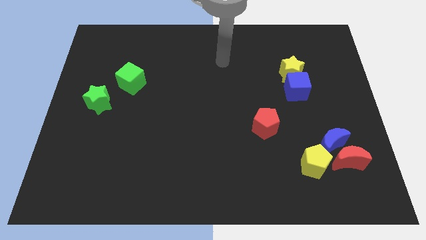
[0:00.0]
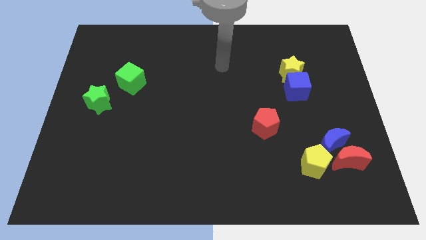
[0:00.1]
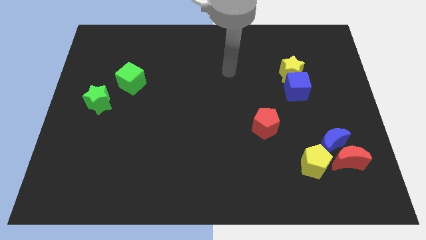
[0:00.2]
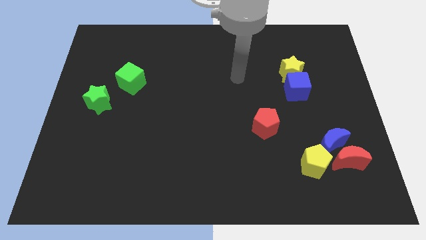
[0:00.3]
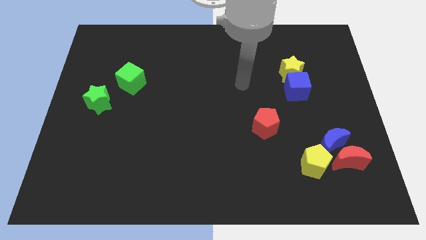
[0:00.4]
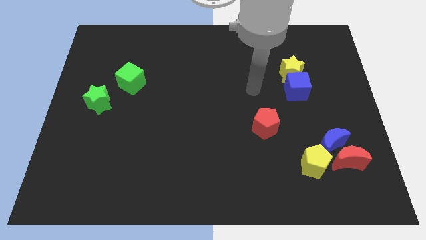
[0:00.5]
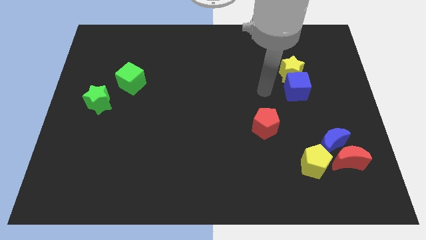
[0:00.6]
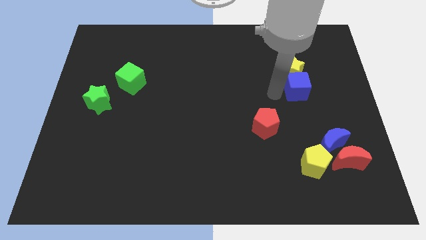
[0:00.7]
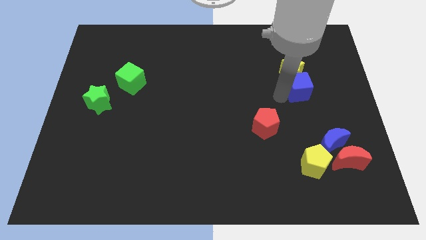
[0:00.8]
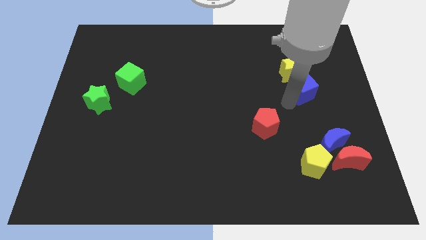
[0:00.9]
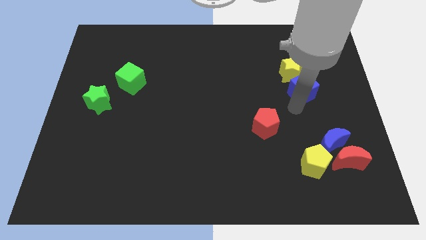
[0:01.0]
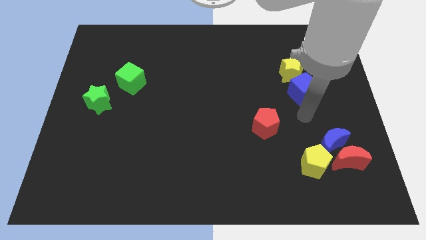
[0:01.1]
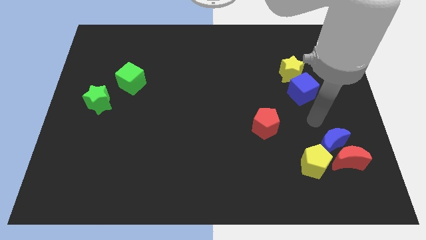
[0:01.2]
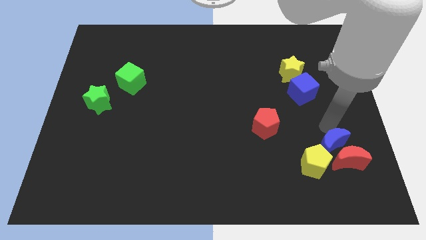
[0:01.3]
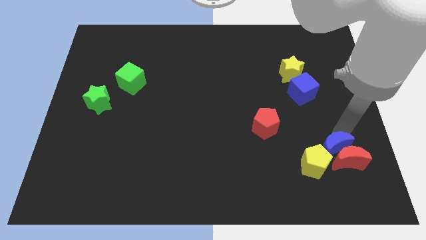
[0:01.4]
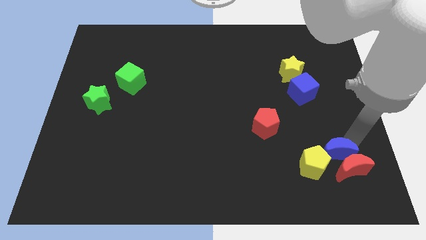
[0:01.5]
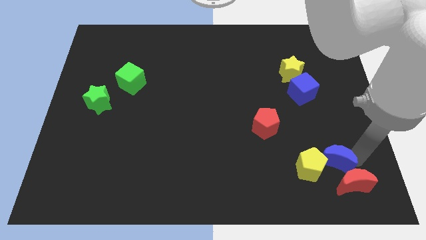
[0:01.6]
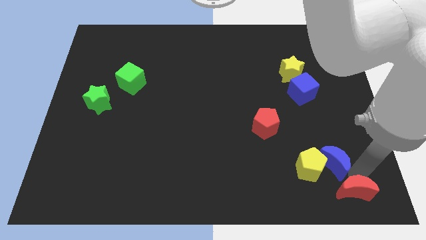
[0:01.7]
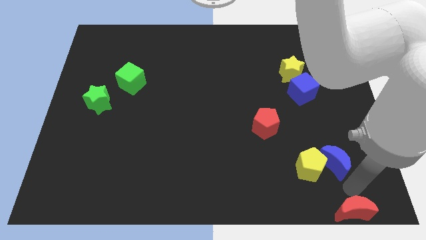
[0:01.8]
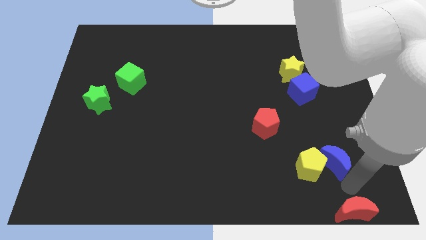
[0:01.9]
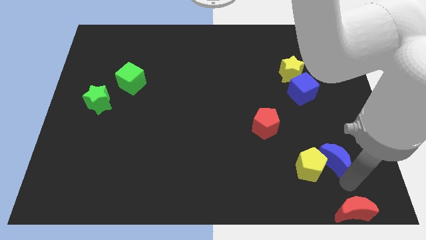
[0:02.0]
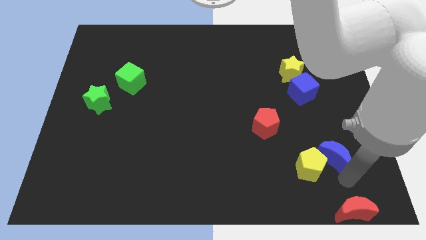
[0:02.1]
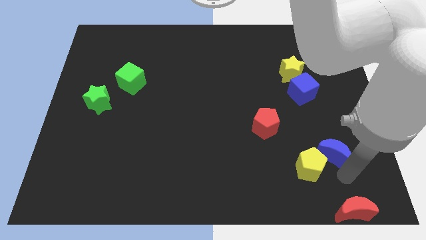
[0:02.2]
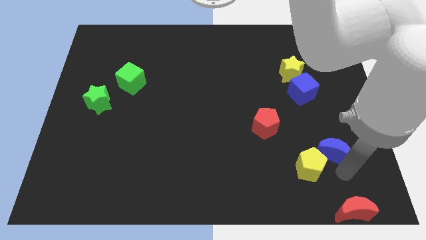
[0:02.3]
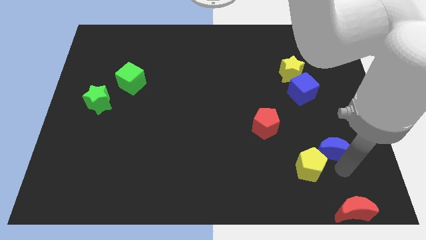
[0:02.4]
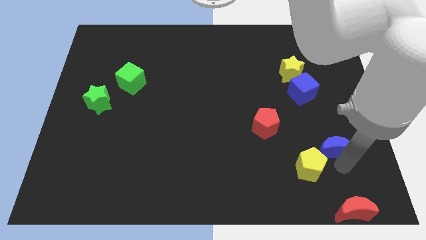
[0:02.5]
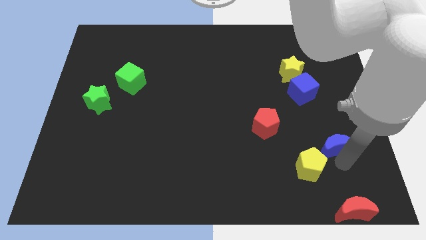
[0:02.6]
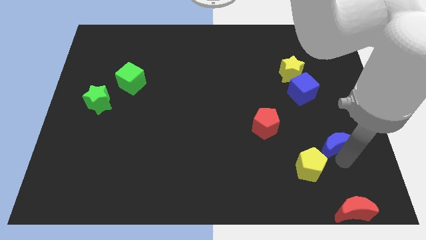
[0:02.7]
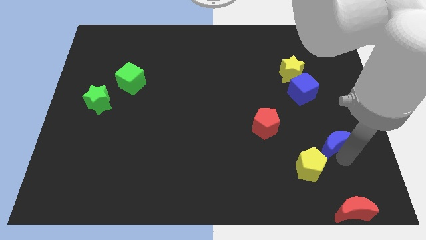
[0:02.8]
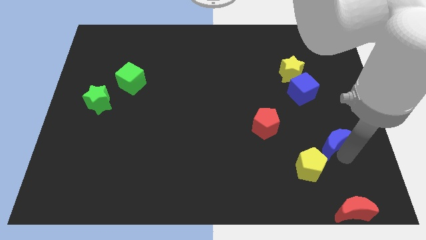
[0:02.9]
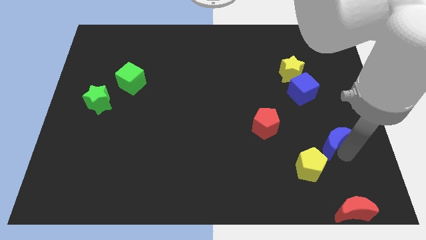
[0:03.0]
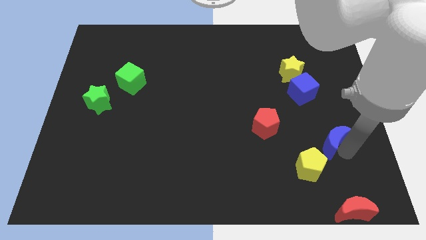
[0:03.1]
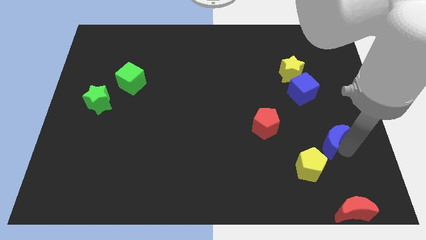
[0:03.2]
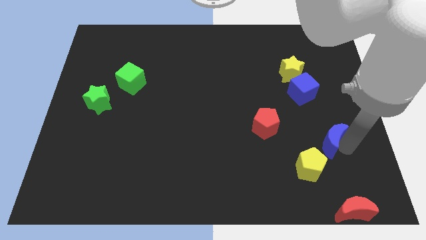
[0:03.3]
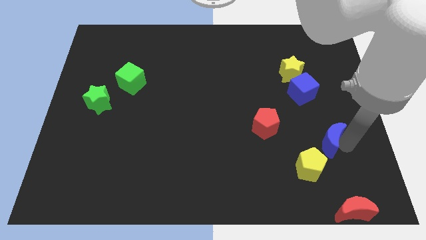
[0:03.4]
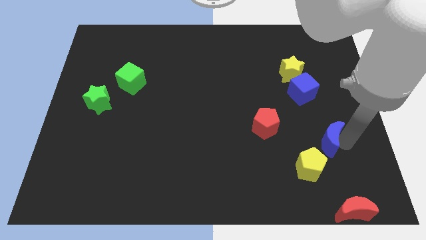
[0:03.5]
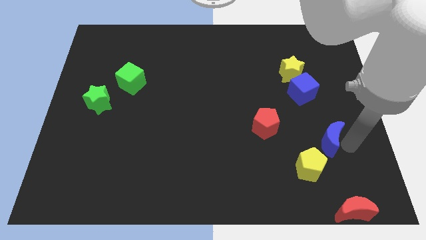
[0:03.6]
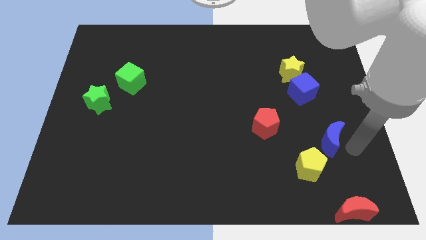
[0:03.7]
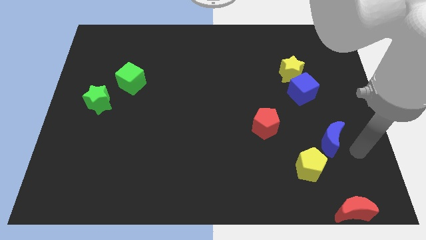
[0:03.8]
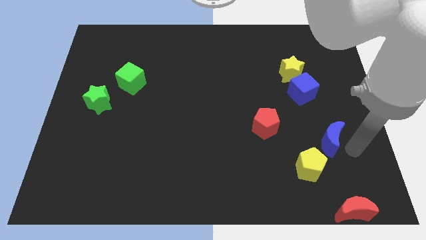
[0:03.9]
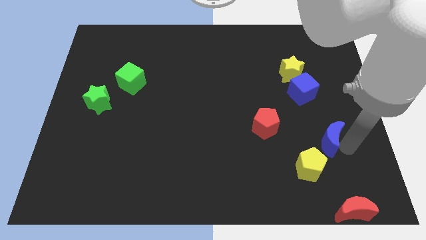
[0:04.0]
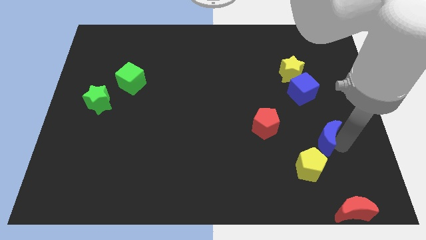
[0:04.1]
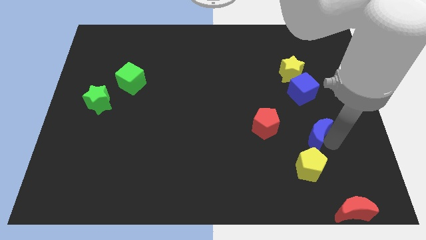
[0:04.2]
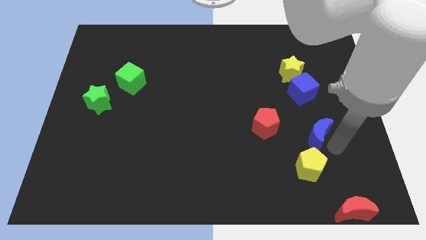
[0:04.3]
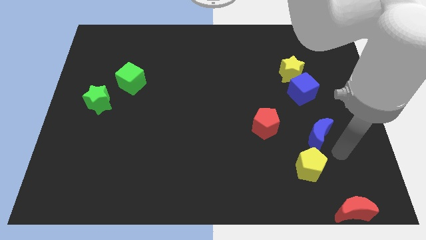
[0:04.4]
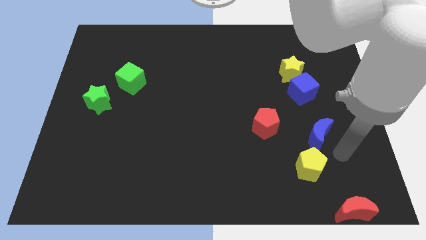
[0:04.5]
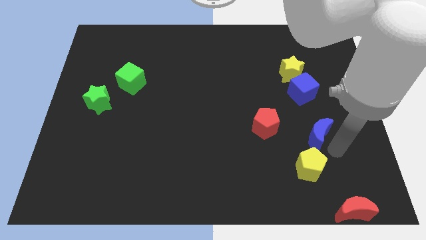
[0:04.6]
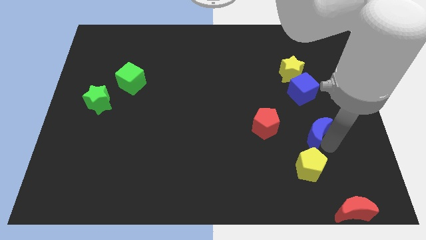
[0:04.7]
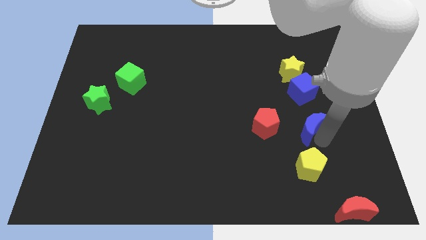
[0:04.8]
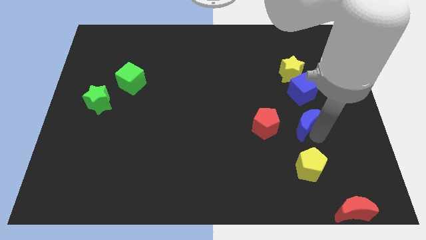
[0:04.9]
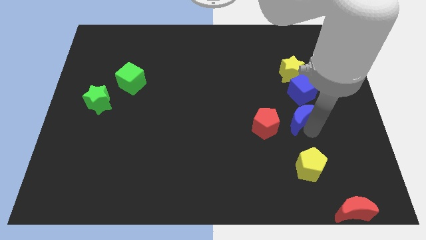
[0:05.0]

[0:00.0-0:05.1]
move the blue moon to the bottom left of the blue cube

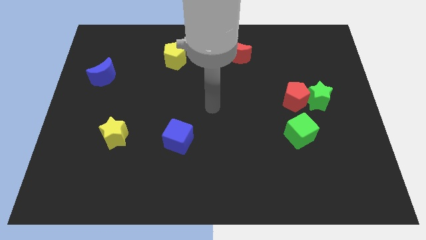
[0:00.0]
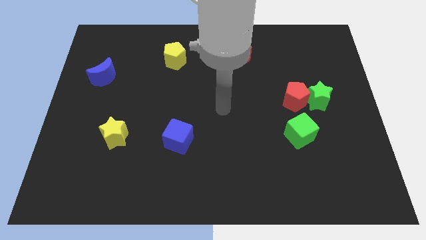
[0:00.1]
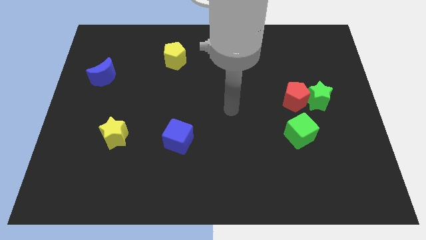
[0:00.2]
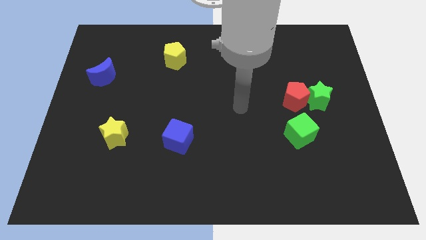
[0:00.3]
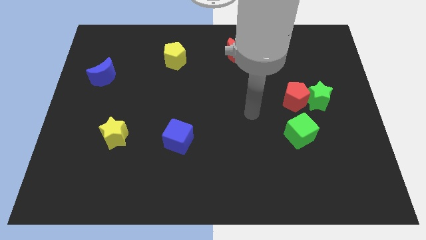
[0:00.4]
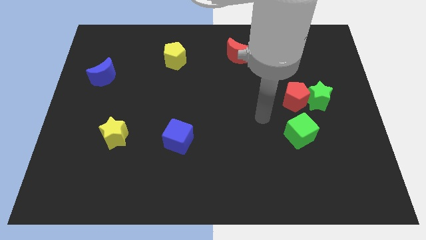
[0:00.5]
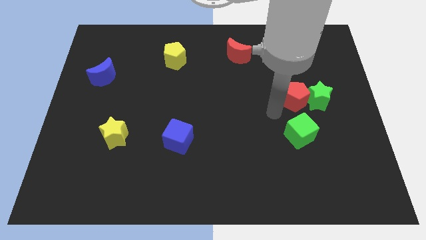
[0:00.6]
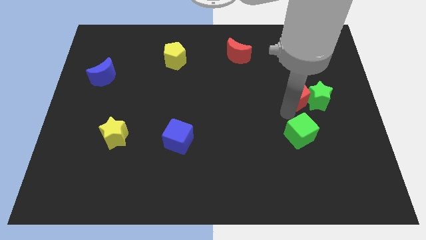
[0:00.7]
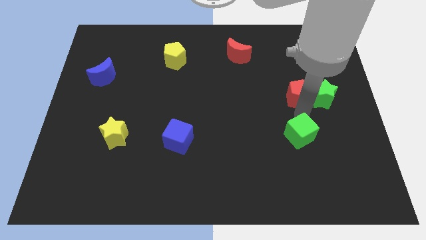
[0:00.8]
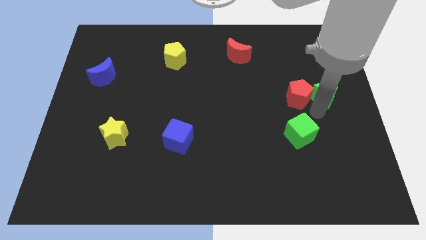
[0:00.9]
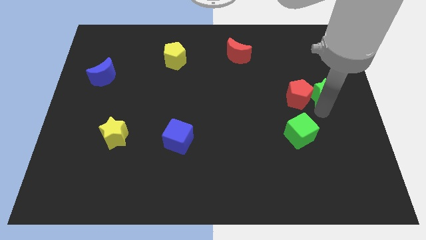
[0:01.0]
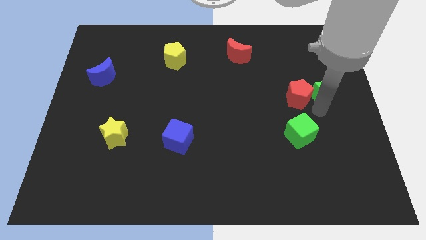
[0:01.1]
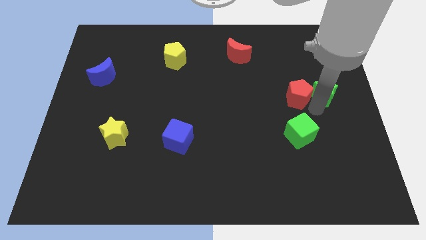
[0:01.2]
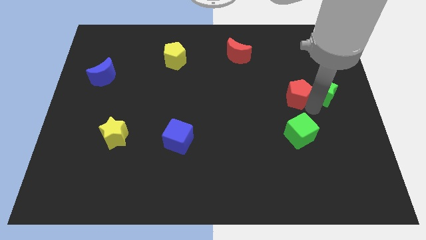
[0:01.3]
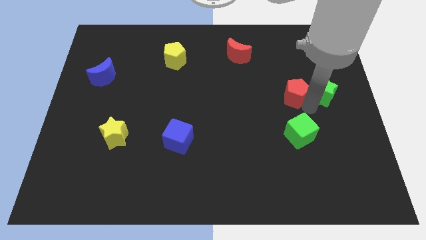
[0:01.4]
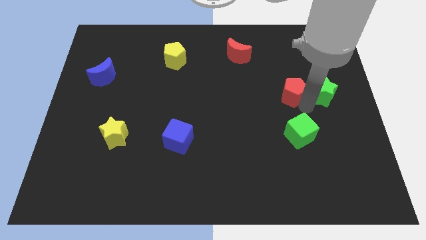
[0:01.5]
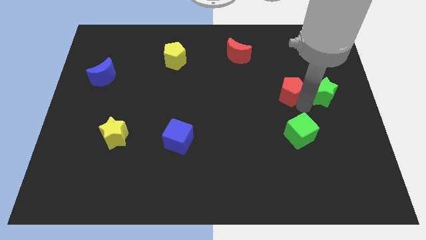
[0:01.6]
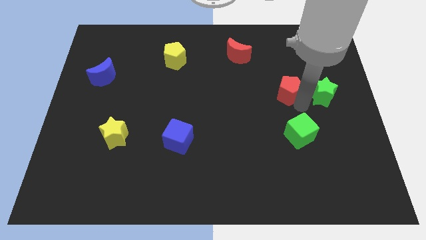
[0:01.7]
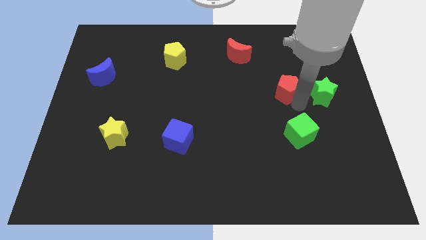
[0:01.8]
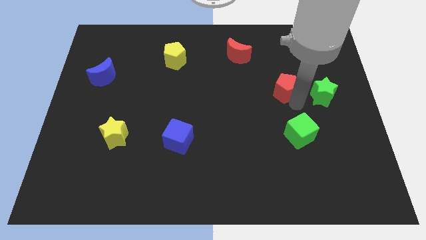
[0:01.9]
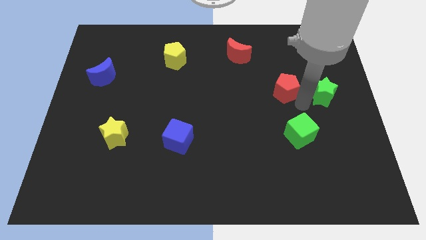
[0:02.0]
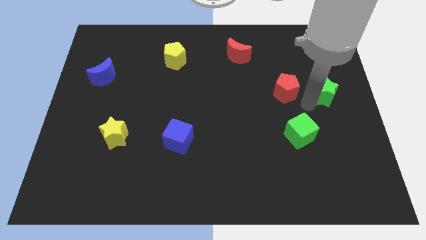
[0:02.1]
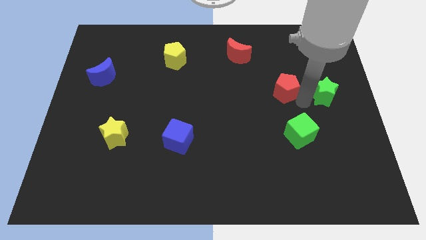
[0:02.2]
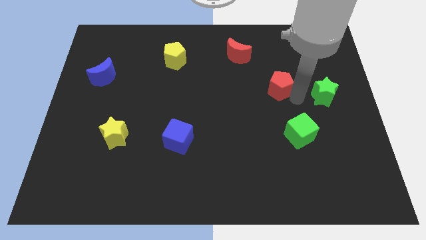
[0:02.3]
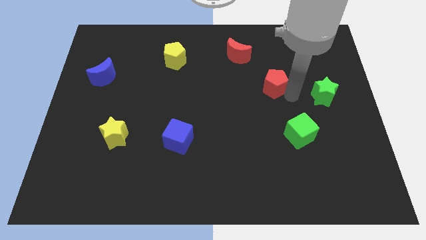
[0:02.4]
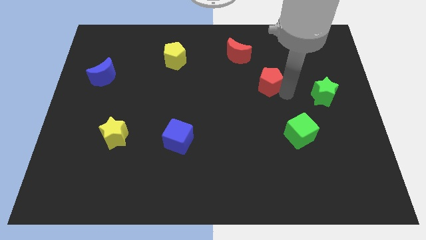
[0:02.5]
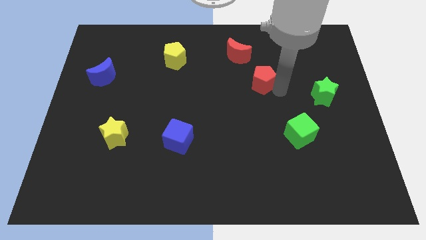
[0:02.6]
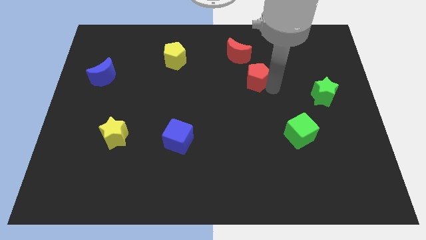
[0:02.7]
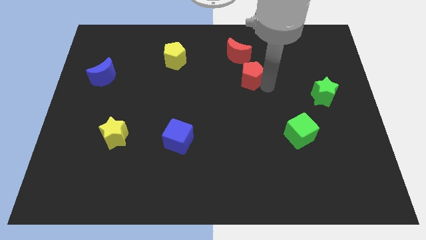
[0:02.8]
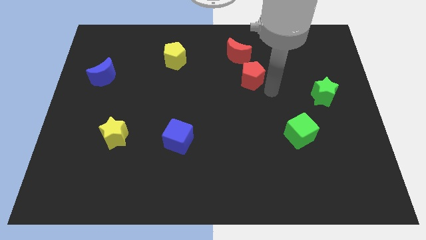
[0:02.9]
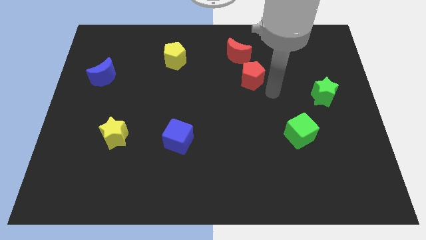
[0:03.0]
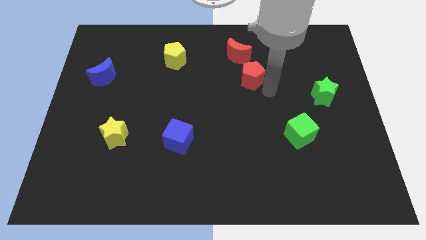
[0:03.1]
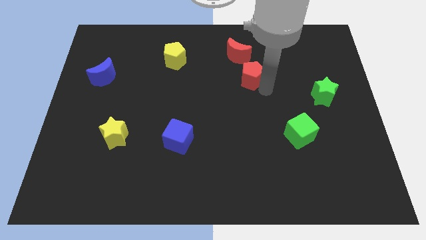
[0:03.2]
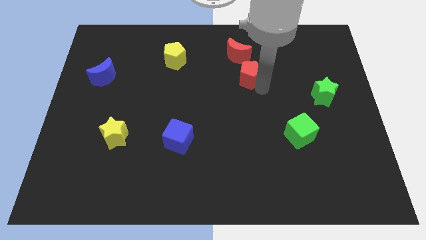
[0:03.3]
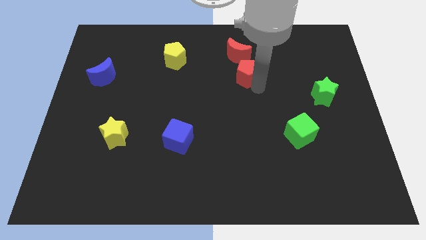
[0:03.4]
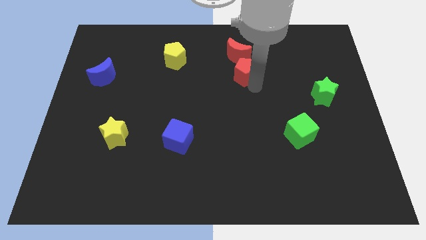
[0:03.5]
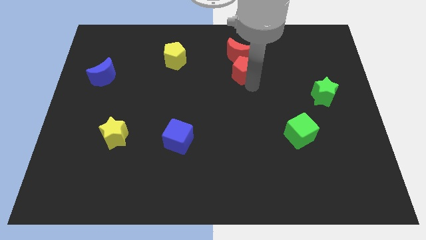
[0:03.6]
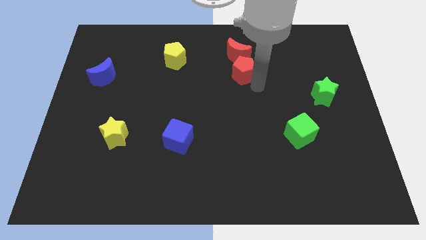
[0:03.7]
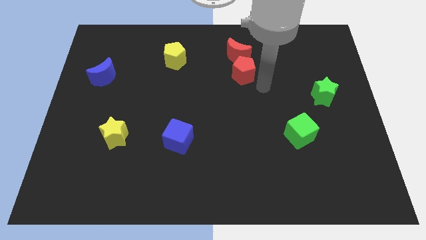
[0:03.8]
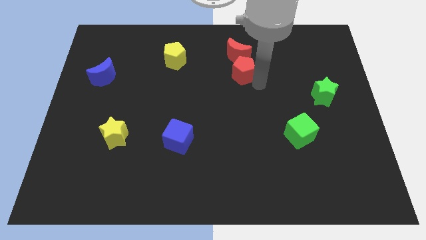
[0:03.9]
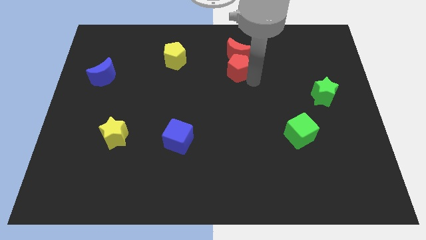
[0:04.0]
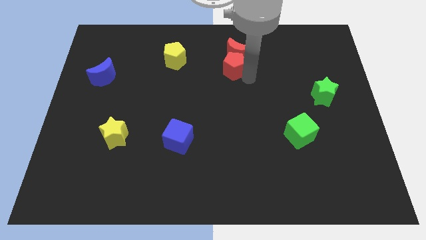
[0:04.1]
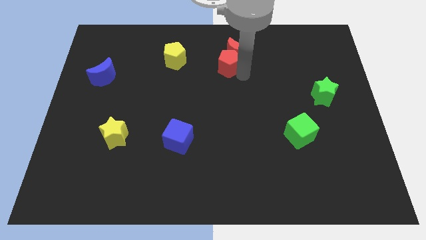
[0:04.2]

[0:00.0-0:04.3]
put the red pentagon to the right side of the yellow pentagon
